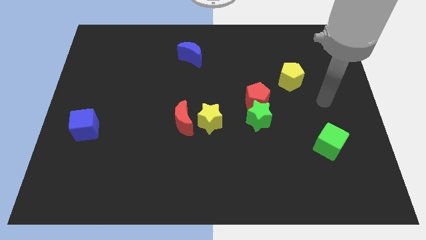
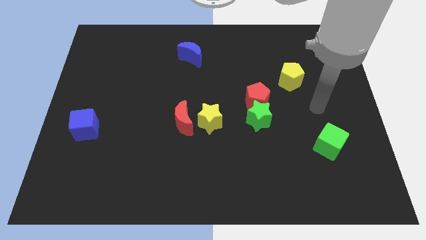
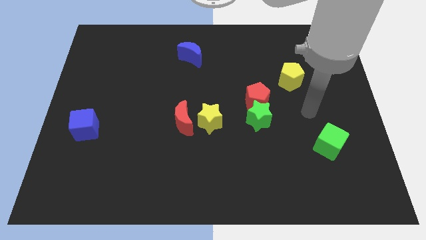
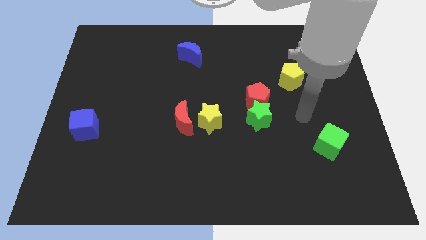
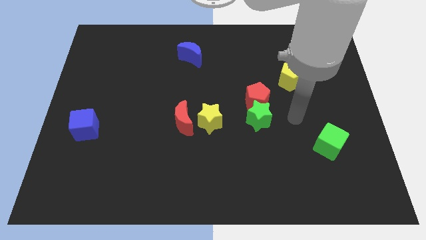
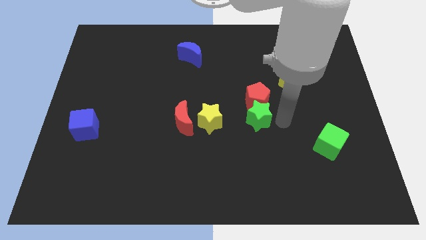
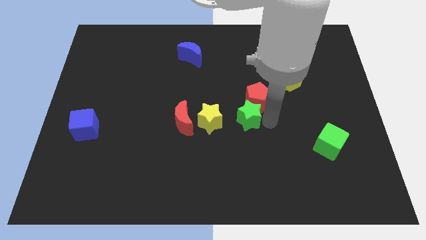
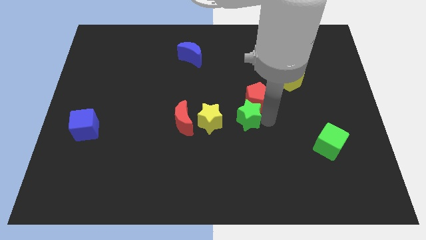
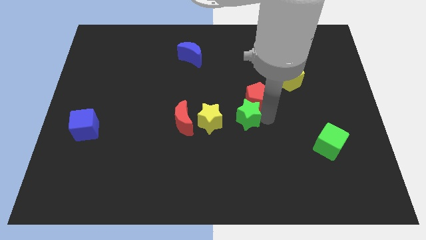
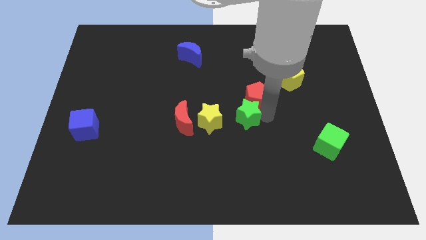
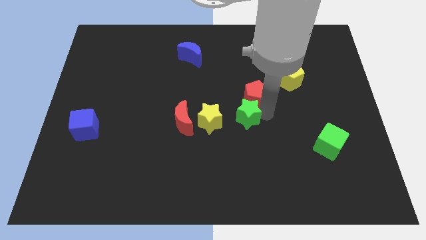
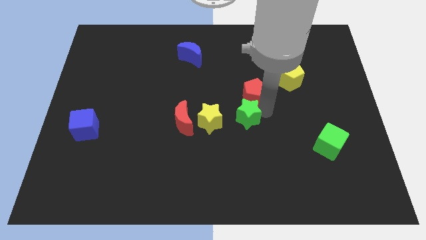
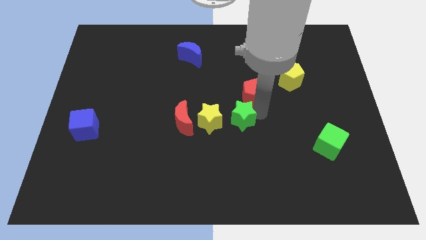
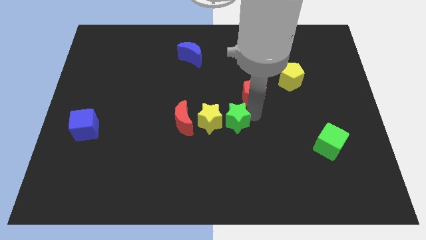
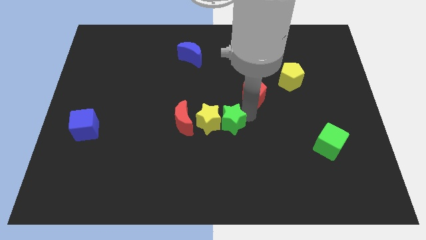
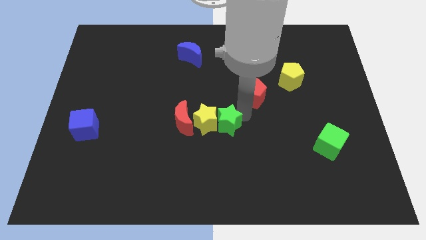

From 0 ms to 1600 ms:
move the red pentagon away from the green star

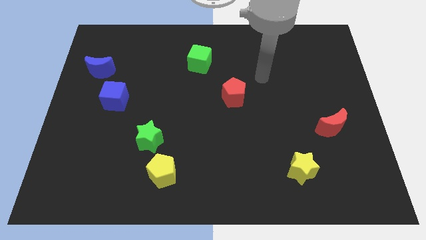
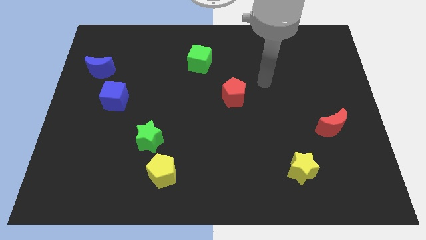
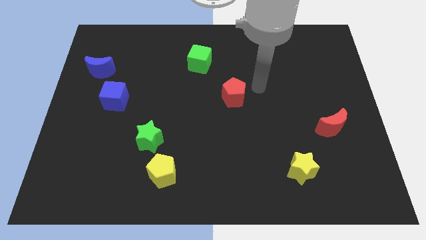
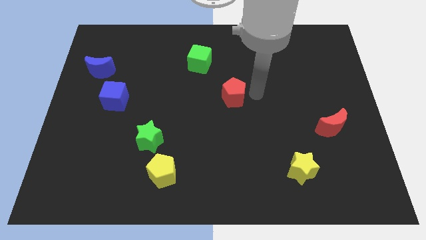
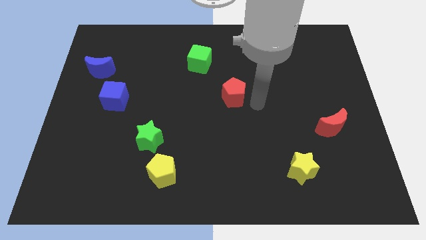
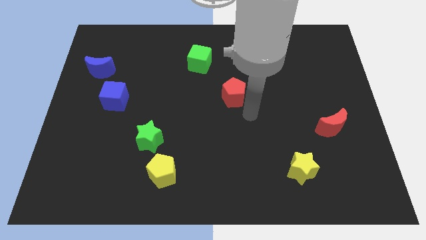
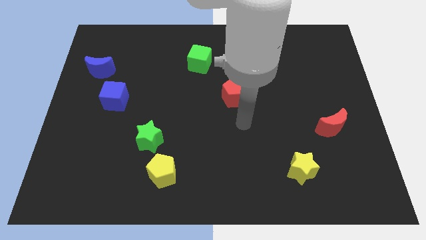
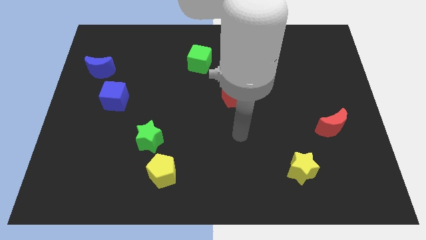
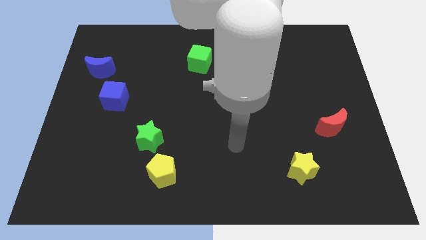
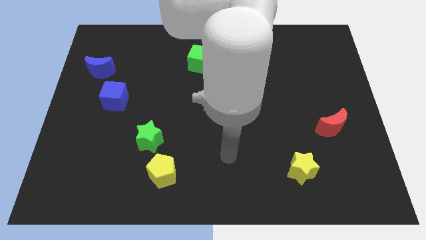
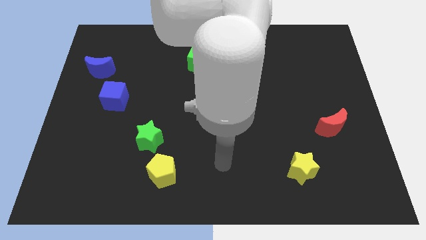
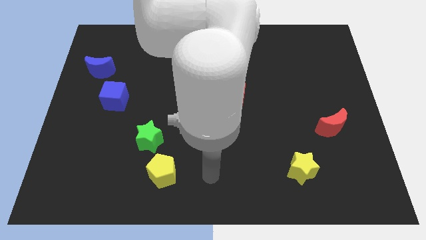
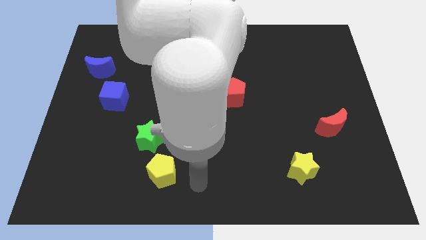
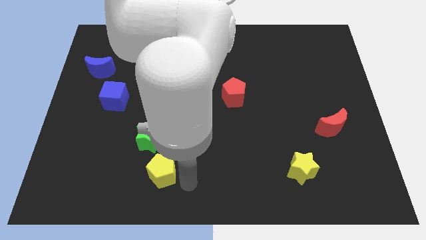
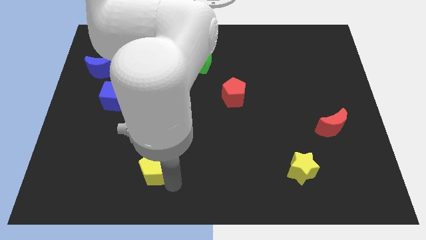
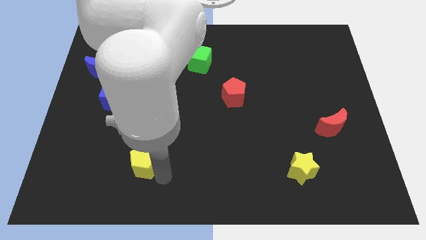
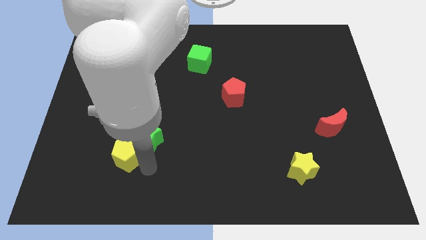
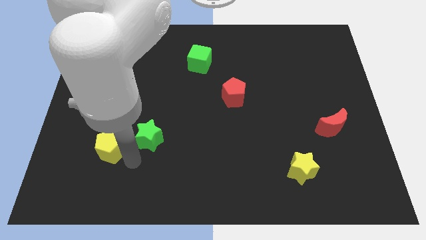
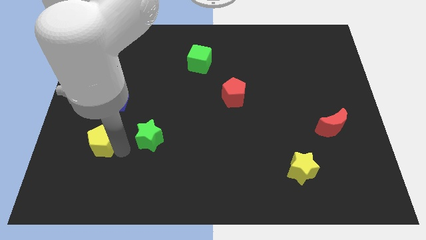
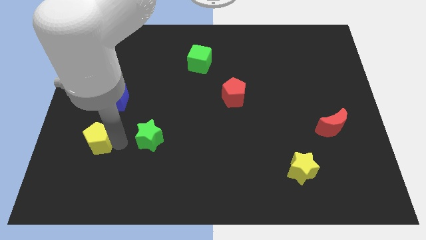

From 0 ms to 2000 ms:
move the green star away from the yellow pentagon

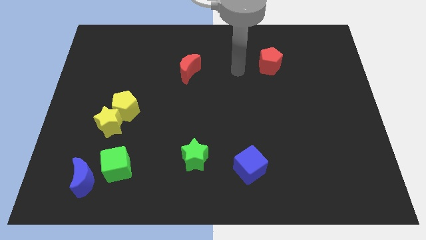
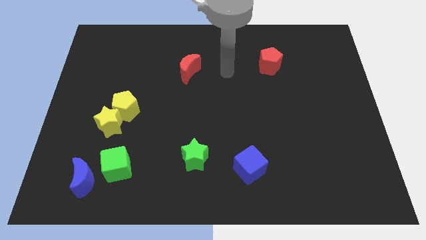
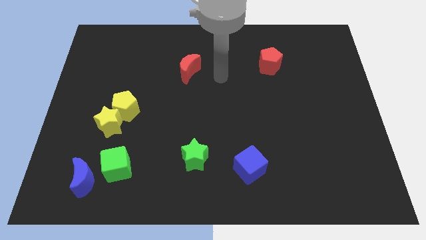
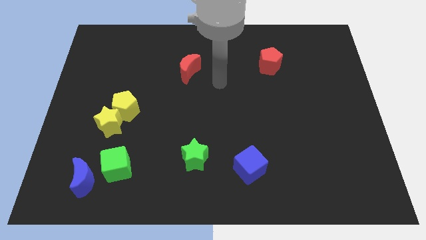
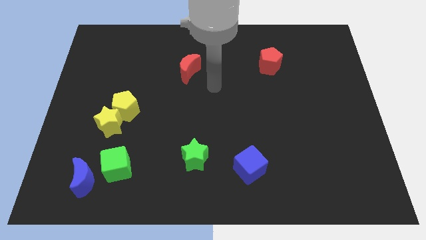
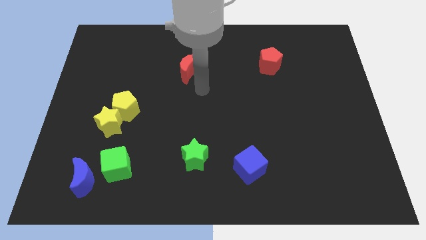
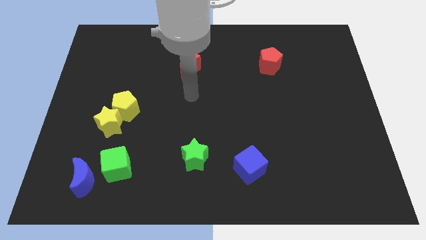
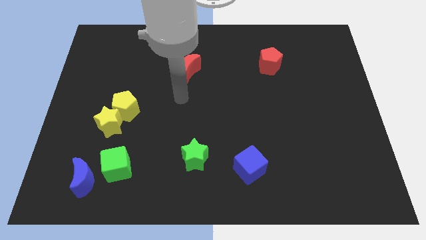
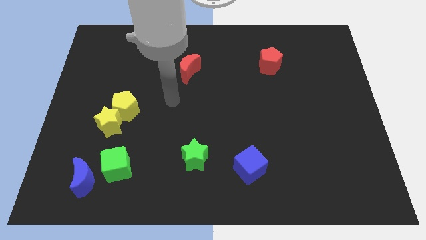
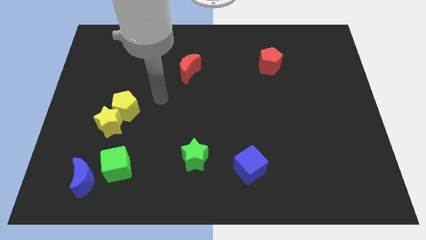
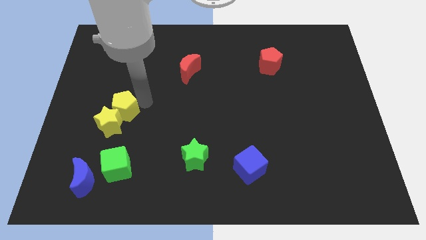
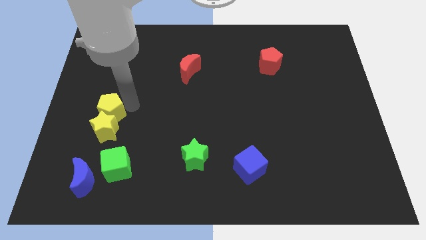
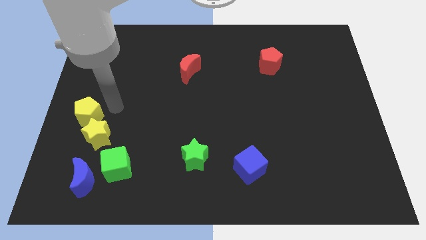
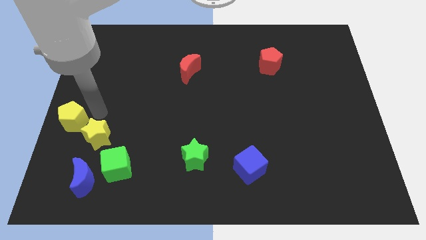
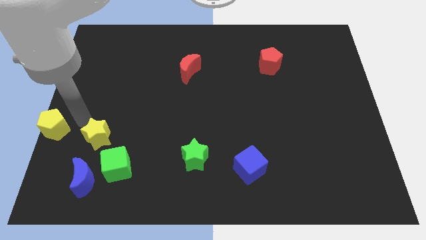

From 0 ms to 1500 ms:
separate the yellow star from the yellow pentagon

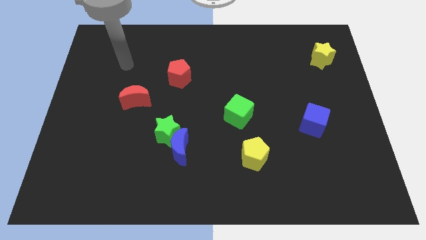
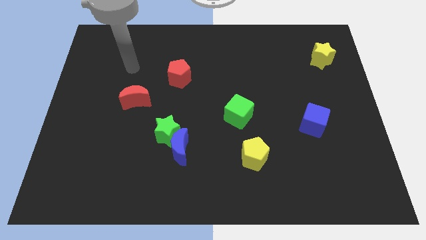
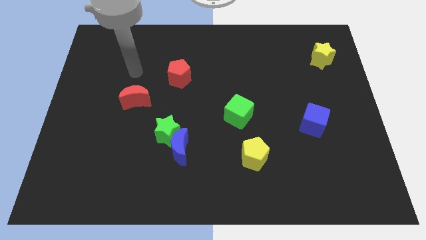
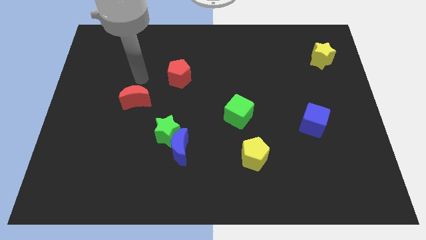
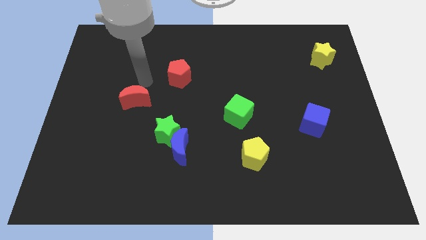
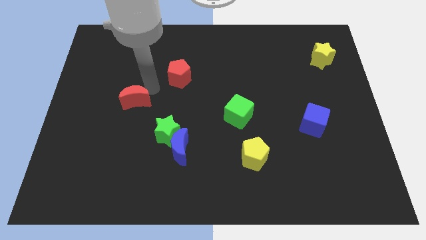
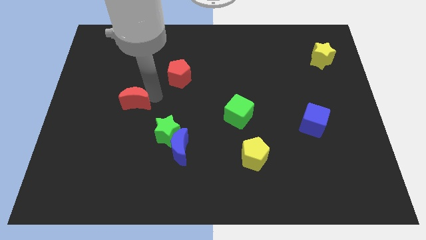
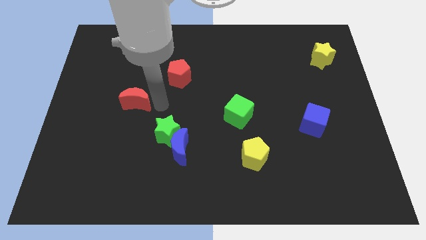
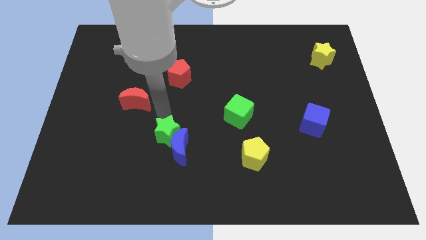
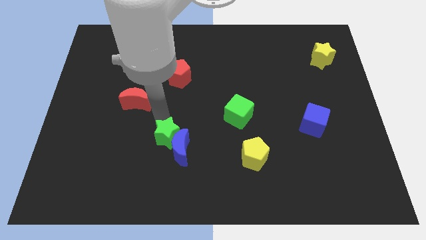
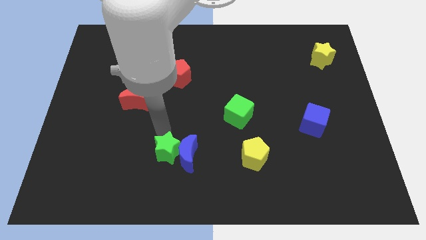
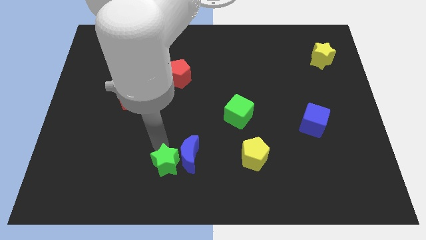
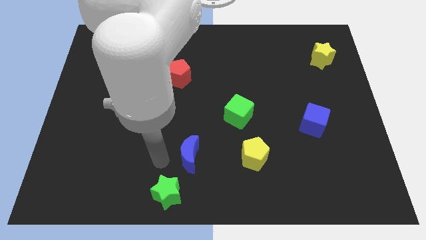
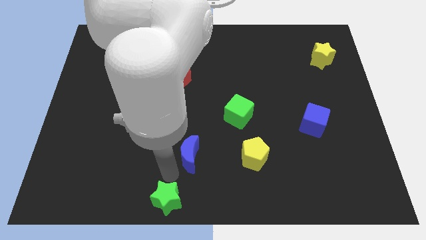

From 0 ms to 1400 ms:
pull the blue moon apart from the green star

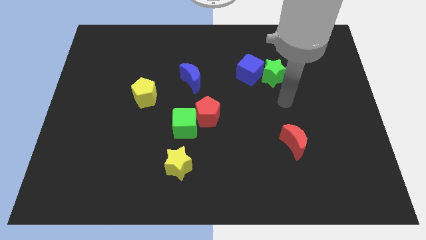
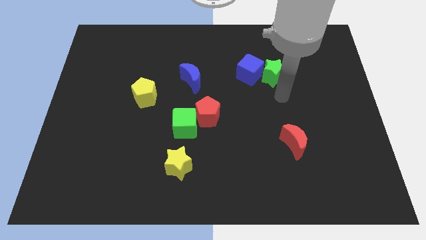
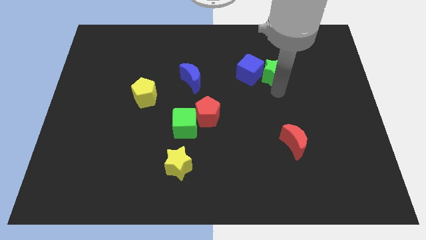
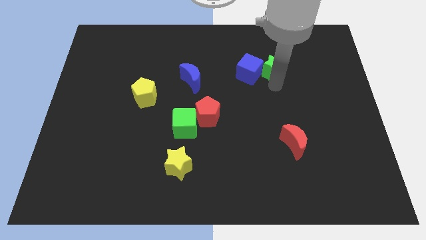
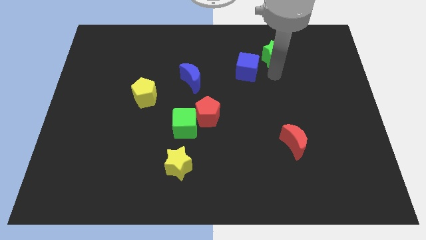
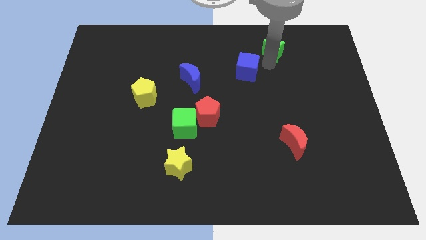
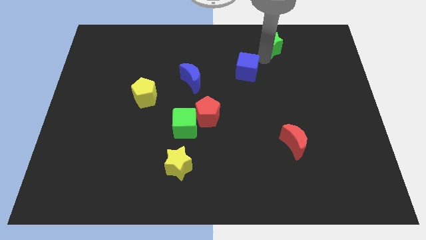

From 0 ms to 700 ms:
separate the blue cube from the green star

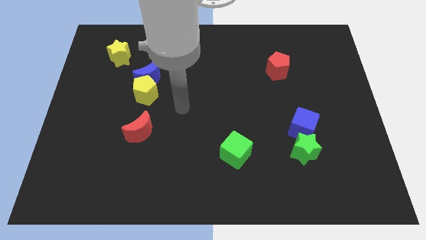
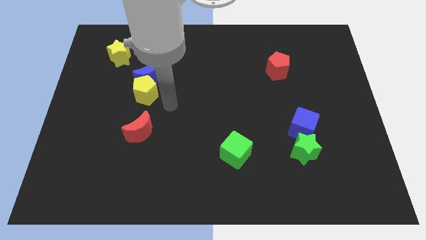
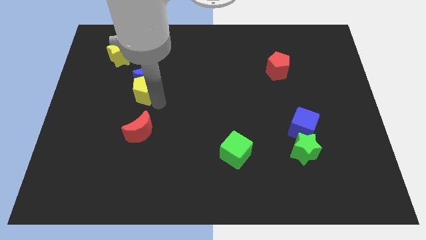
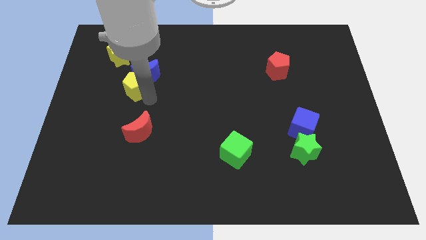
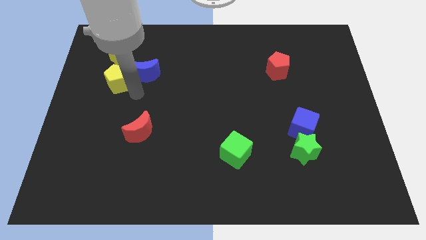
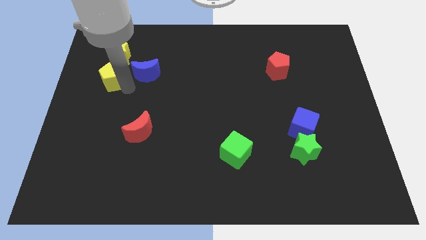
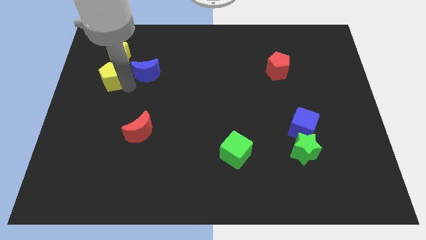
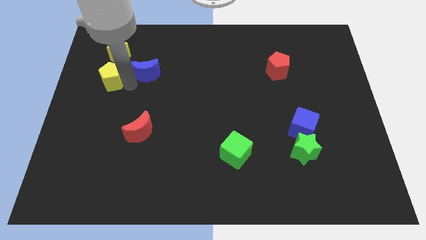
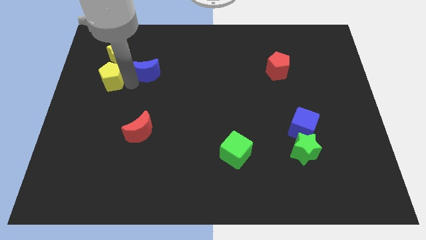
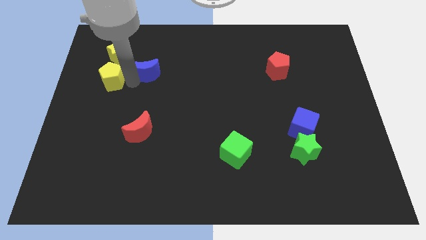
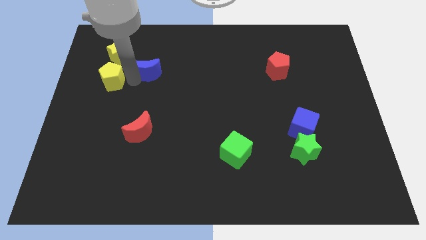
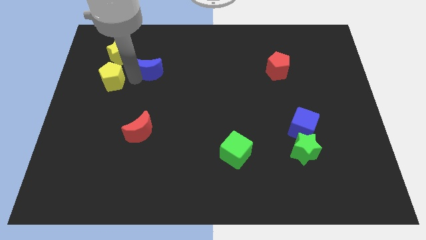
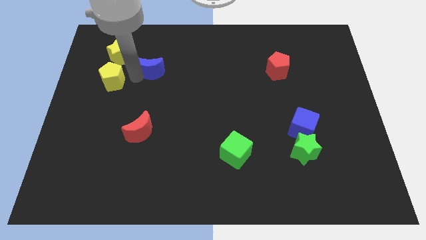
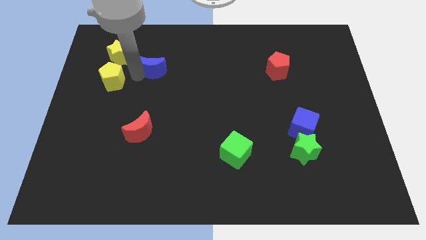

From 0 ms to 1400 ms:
pull the blue moon apart from the yellow pentagon

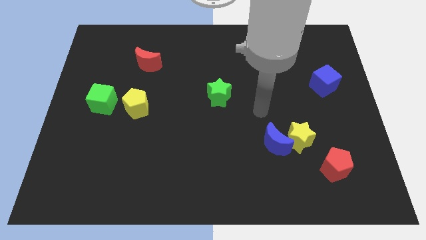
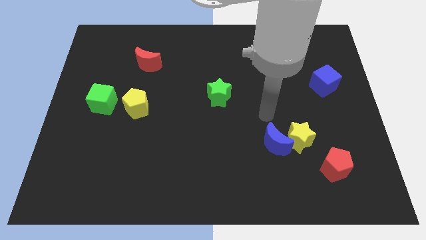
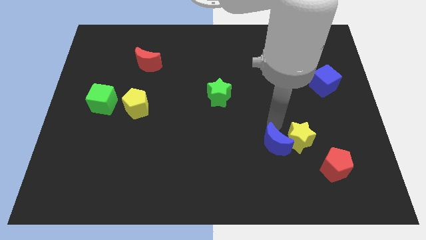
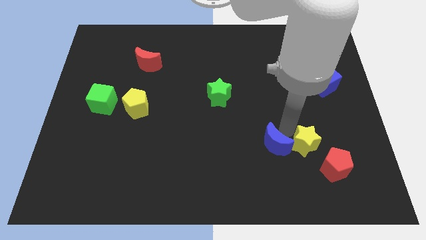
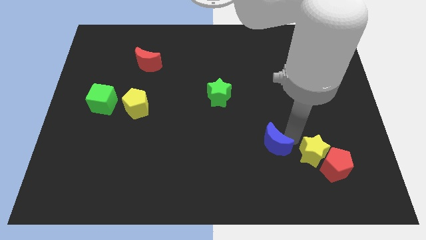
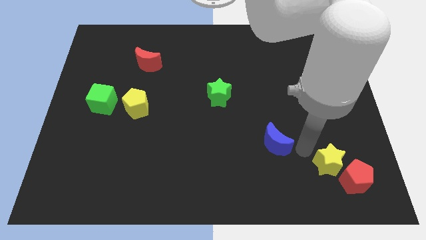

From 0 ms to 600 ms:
move the blue moon away from the yellow star
